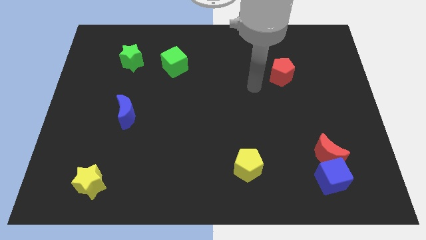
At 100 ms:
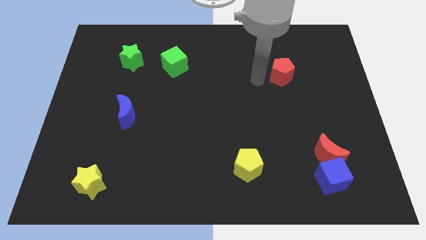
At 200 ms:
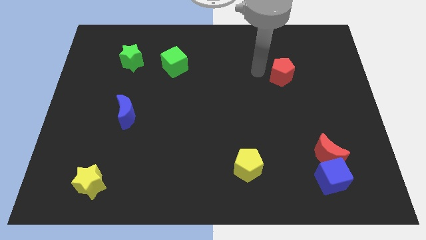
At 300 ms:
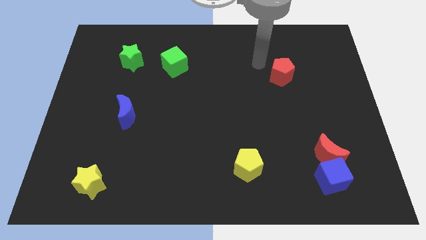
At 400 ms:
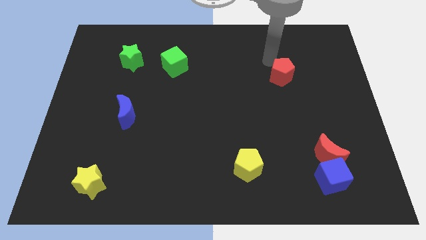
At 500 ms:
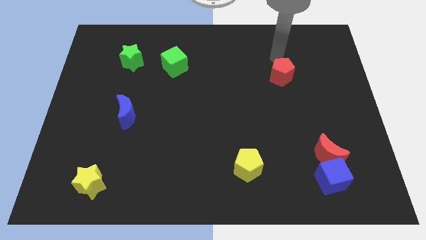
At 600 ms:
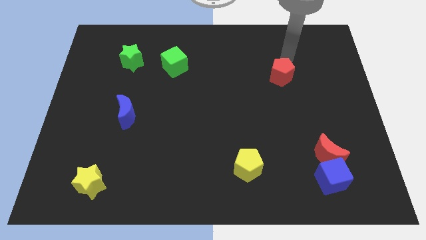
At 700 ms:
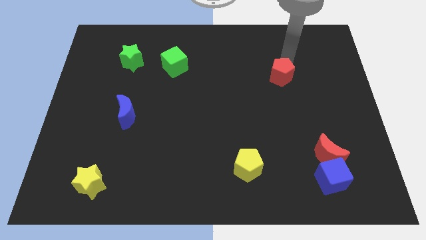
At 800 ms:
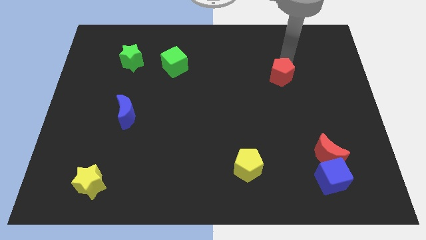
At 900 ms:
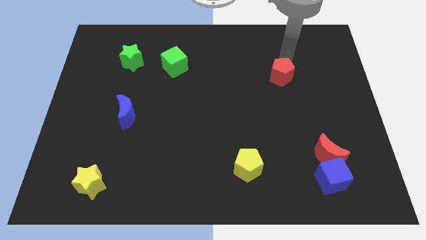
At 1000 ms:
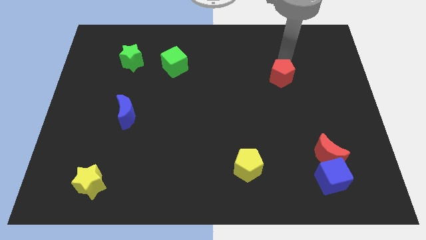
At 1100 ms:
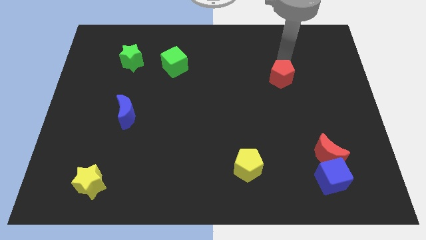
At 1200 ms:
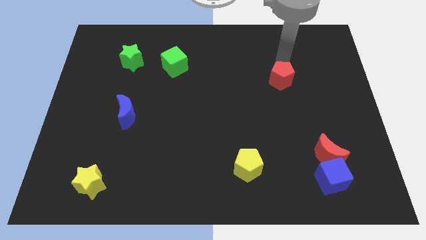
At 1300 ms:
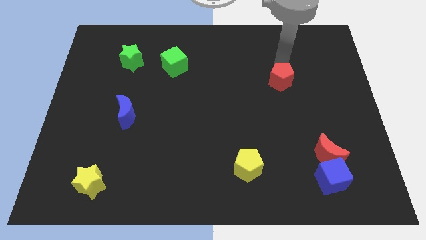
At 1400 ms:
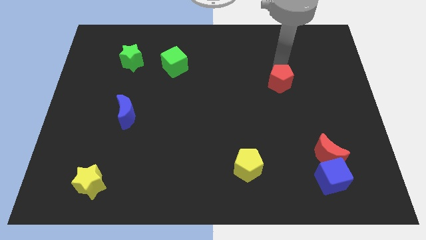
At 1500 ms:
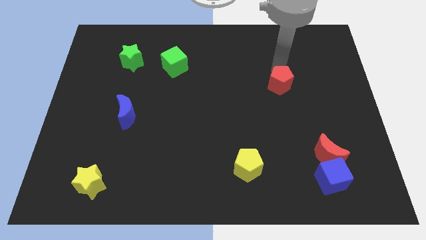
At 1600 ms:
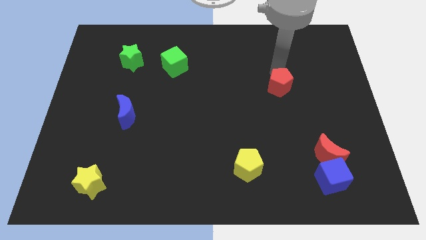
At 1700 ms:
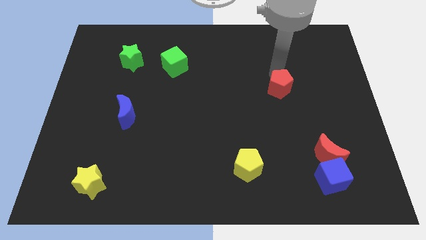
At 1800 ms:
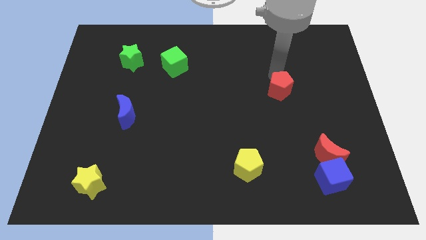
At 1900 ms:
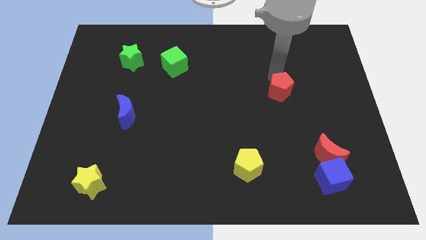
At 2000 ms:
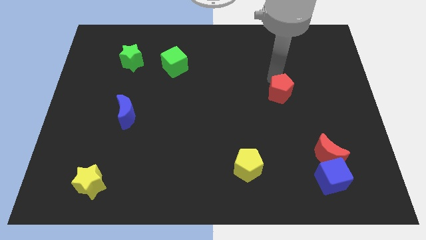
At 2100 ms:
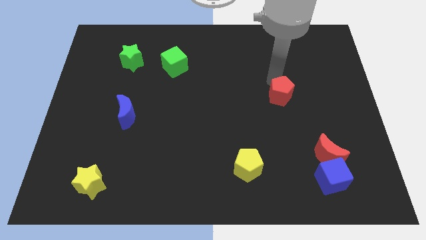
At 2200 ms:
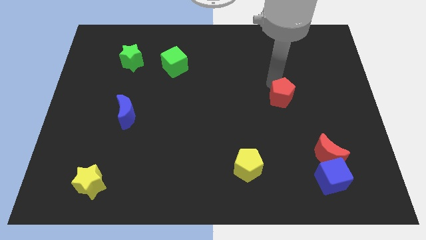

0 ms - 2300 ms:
move the red pentagon downwards somewhat

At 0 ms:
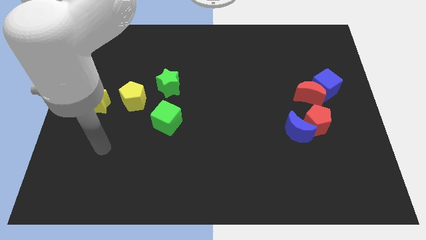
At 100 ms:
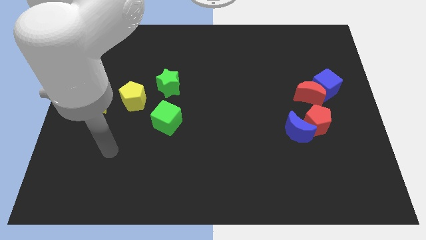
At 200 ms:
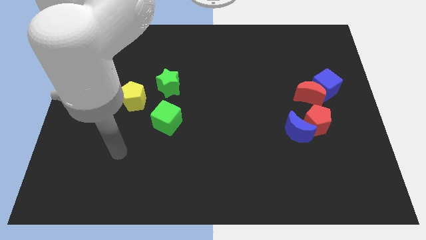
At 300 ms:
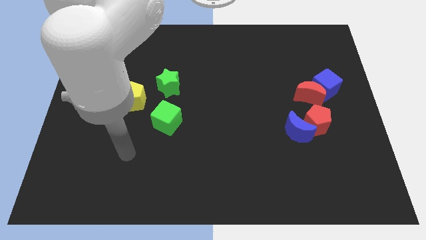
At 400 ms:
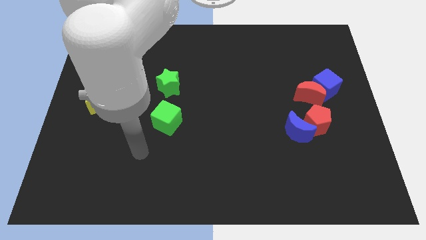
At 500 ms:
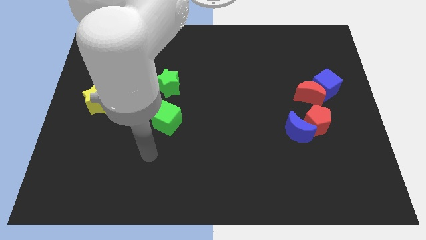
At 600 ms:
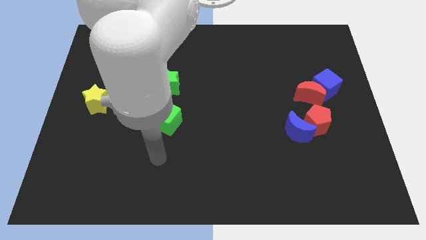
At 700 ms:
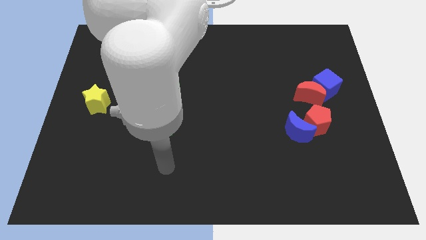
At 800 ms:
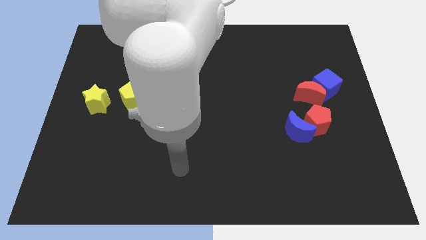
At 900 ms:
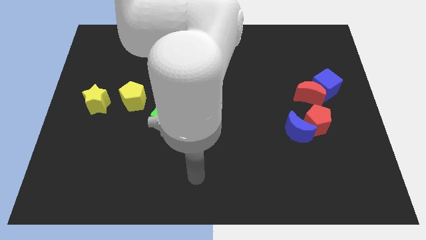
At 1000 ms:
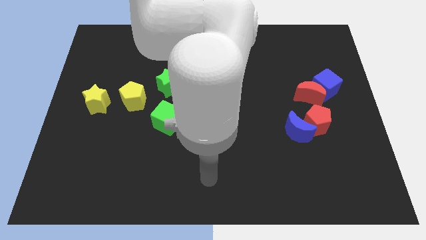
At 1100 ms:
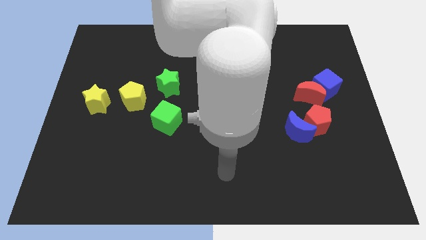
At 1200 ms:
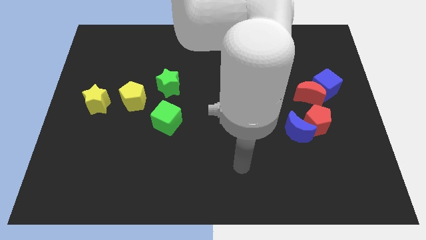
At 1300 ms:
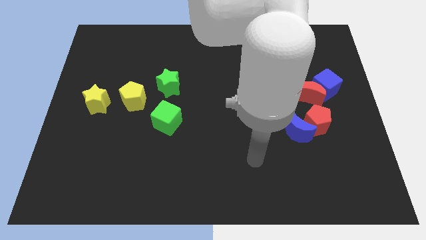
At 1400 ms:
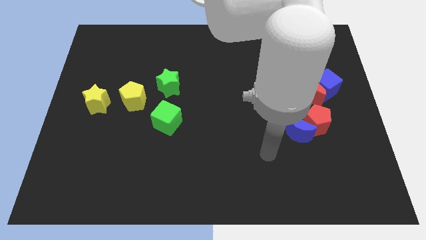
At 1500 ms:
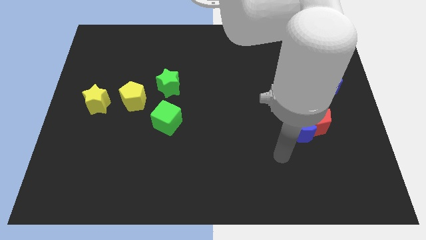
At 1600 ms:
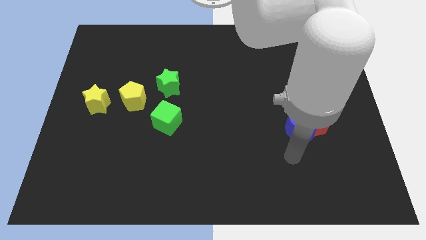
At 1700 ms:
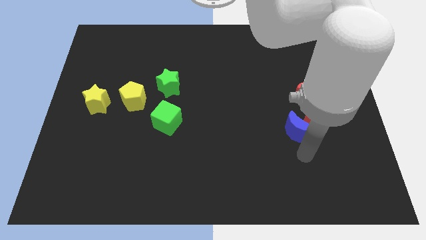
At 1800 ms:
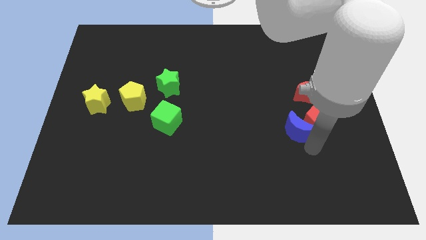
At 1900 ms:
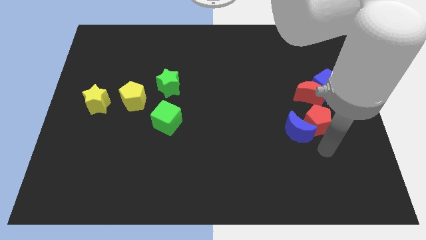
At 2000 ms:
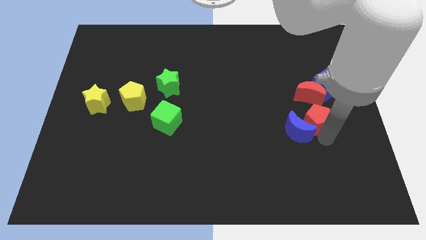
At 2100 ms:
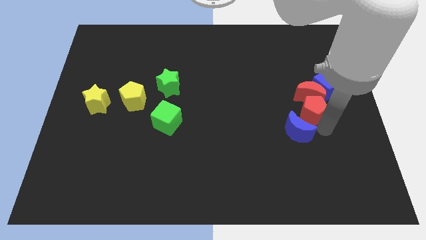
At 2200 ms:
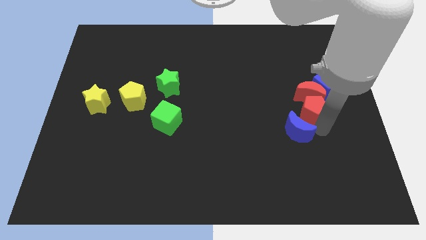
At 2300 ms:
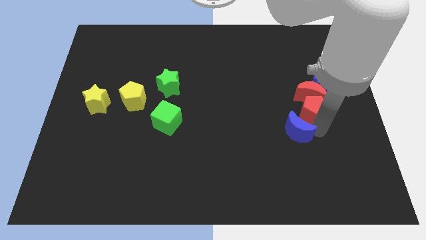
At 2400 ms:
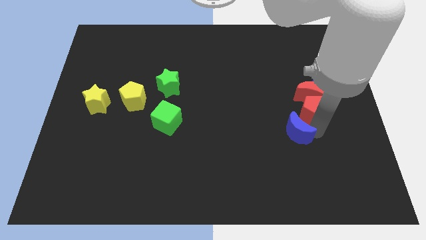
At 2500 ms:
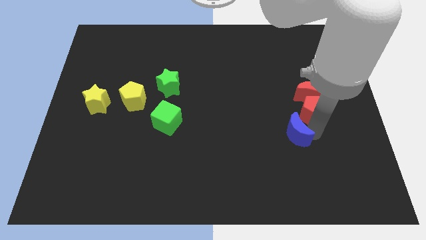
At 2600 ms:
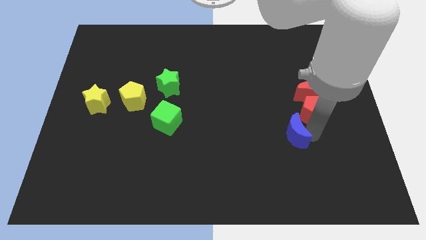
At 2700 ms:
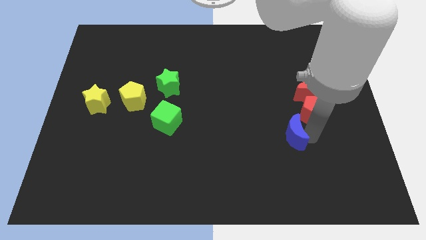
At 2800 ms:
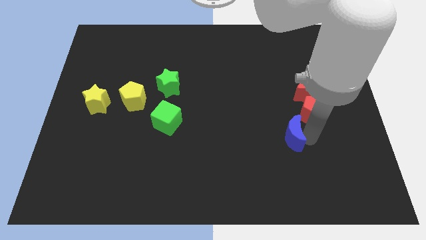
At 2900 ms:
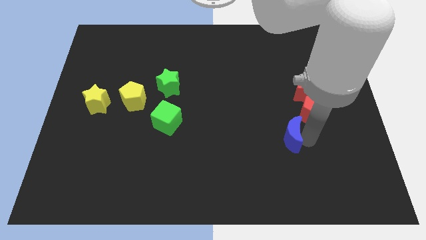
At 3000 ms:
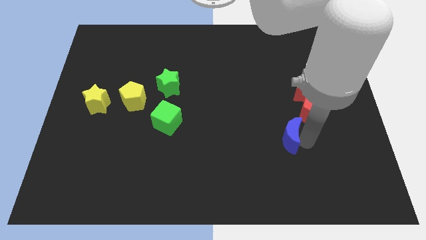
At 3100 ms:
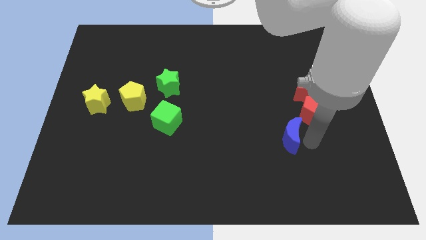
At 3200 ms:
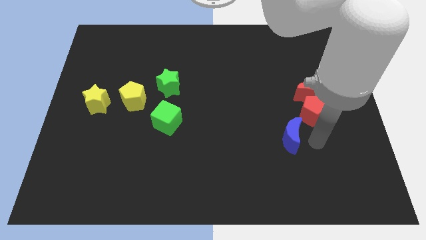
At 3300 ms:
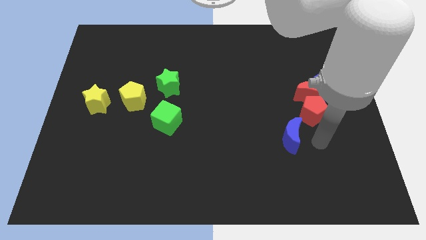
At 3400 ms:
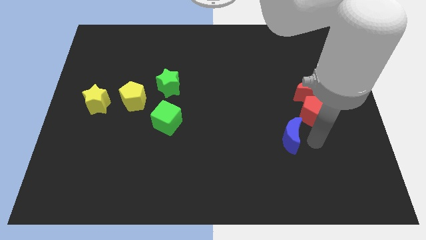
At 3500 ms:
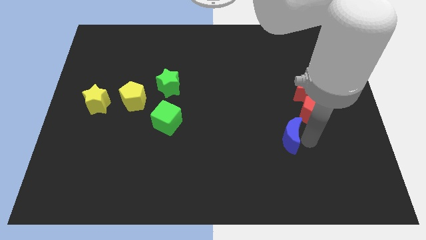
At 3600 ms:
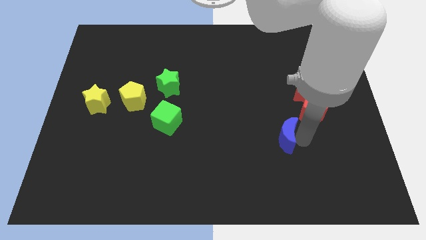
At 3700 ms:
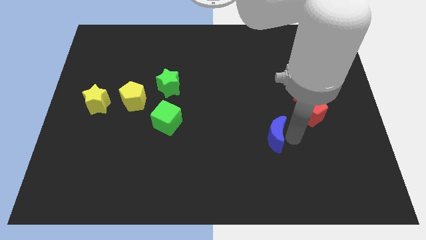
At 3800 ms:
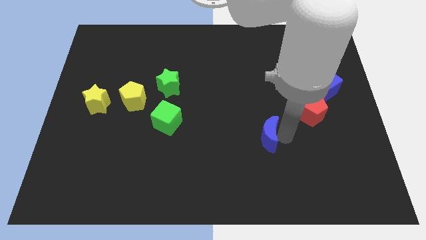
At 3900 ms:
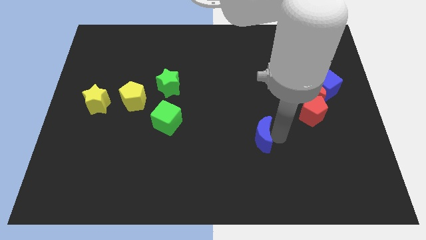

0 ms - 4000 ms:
push the blue moon to the left a little

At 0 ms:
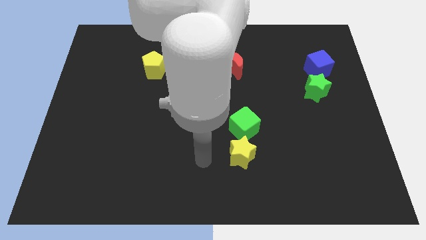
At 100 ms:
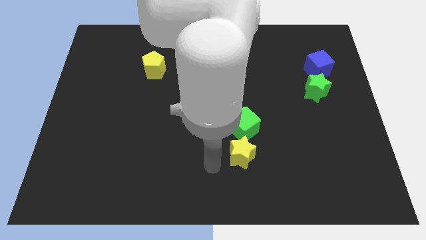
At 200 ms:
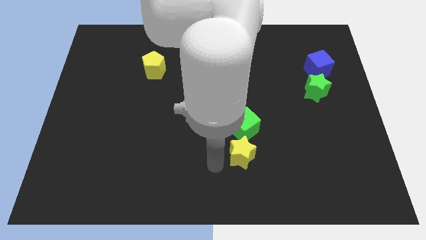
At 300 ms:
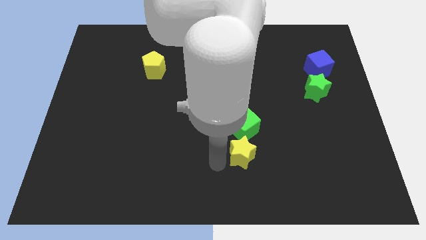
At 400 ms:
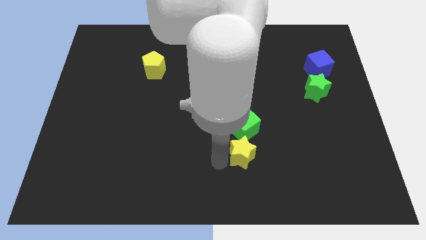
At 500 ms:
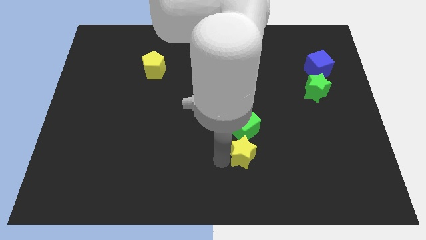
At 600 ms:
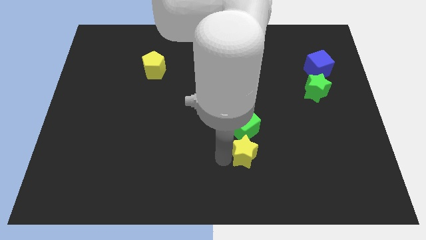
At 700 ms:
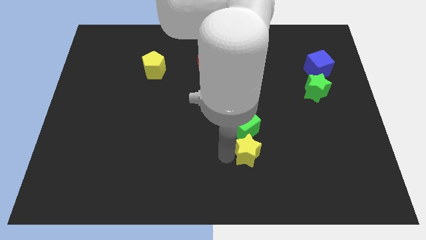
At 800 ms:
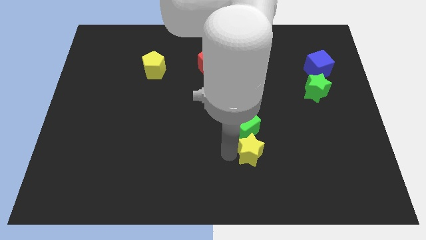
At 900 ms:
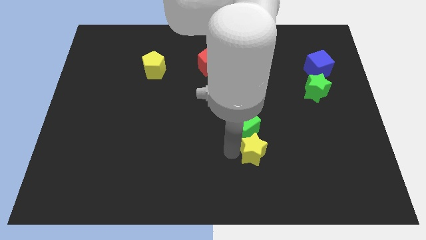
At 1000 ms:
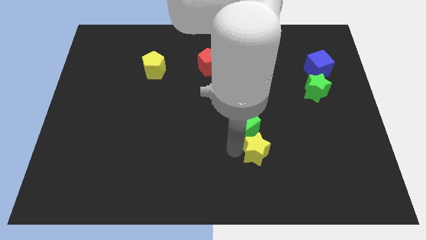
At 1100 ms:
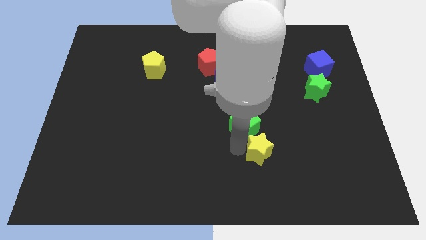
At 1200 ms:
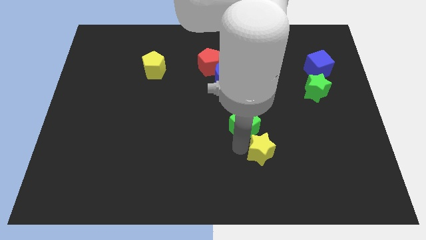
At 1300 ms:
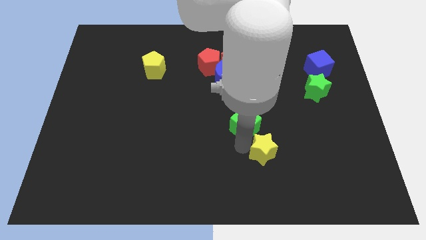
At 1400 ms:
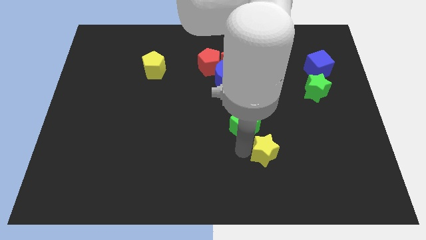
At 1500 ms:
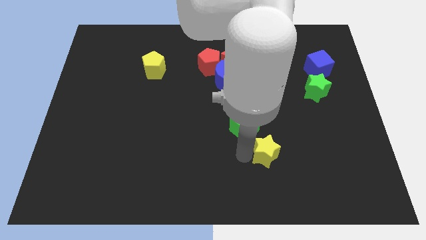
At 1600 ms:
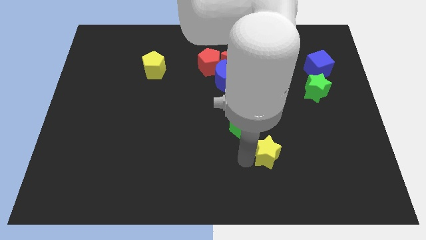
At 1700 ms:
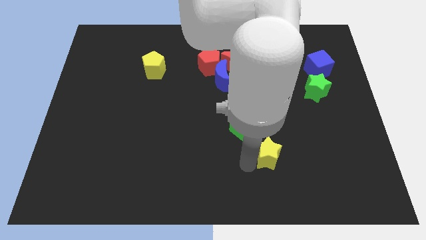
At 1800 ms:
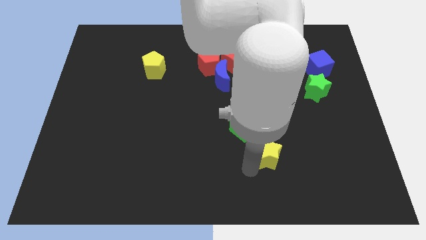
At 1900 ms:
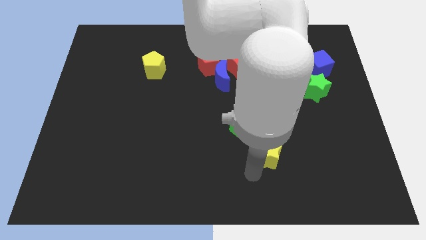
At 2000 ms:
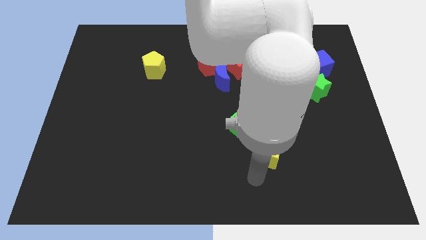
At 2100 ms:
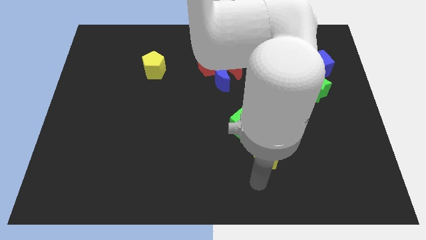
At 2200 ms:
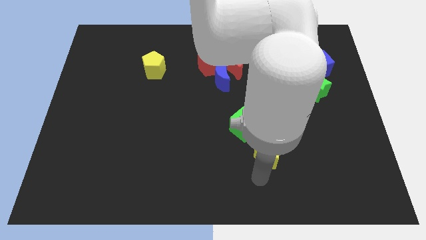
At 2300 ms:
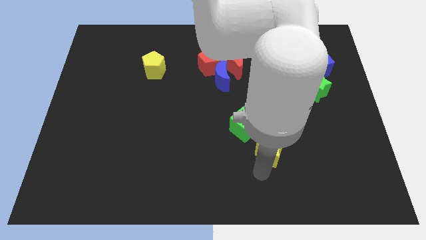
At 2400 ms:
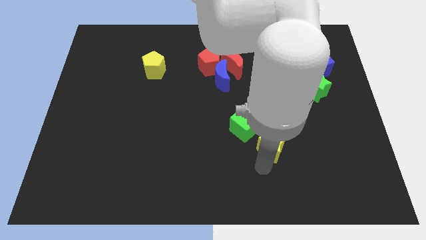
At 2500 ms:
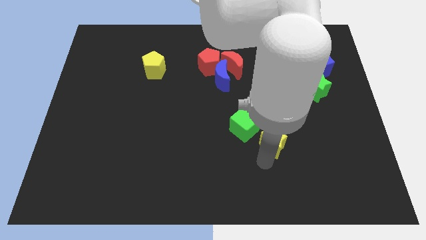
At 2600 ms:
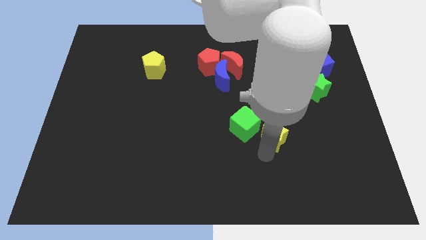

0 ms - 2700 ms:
slightly move the yellow star up and then right
